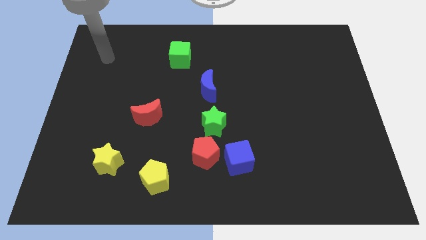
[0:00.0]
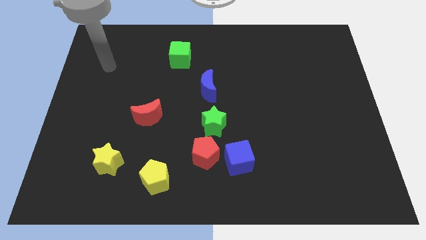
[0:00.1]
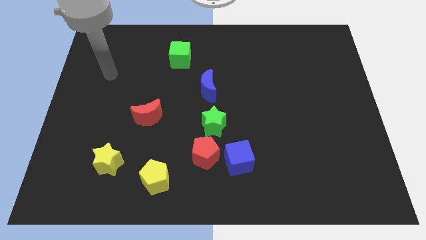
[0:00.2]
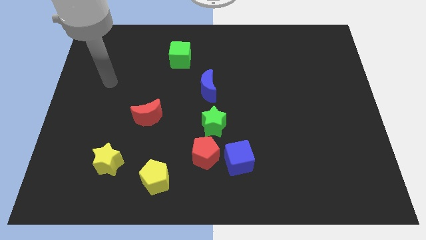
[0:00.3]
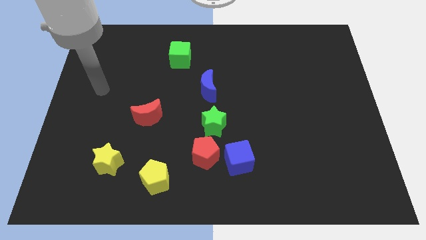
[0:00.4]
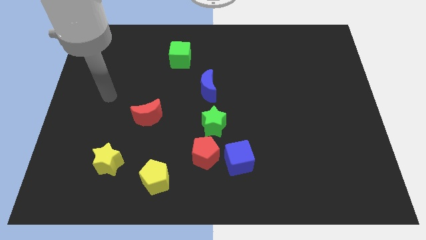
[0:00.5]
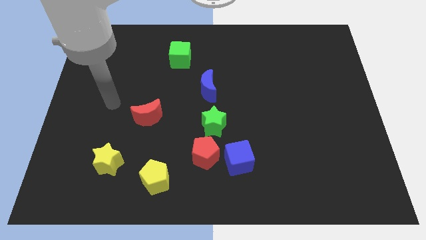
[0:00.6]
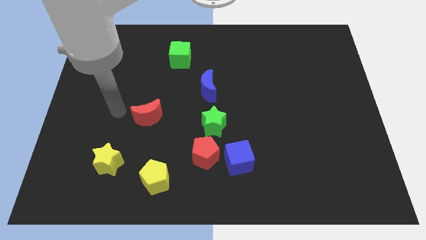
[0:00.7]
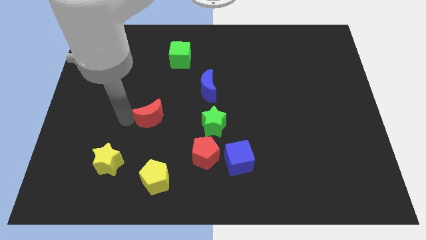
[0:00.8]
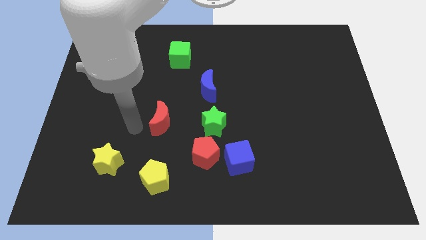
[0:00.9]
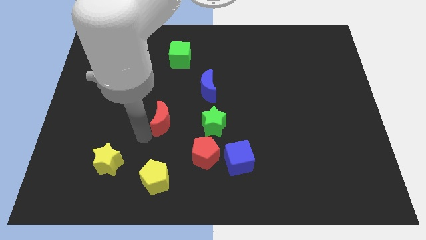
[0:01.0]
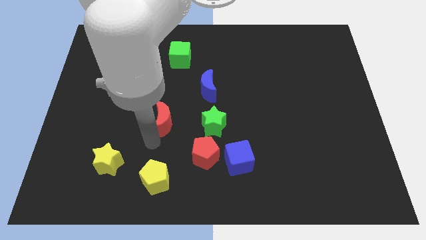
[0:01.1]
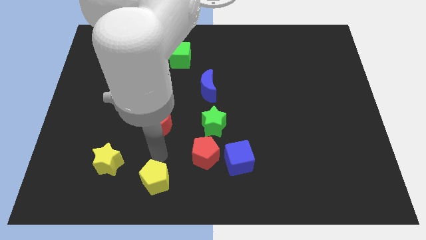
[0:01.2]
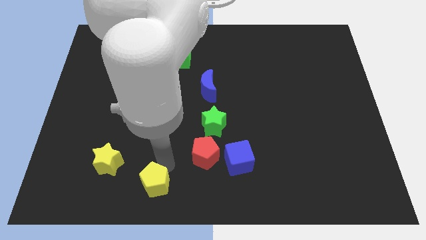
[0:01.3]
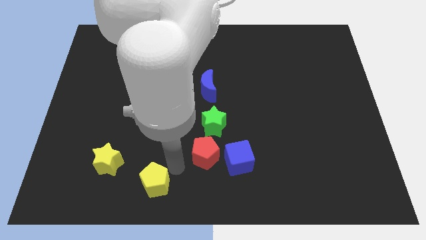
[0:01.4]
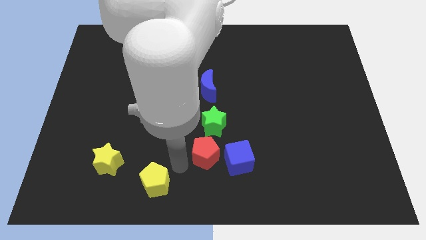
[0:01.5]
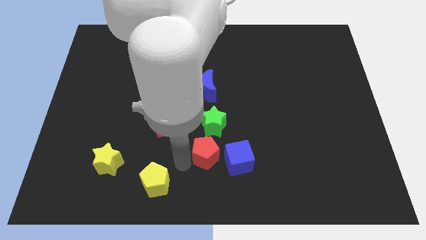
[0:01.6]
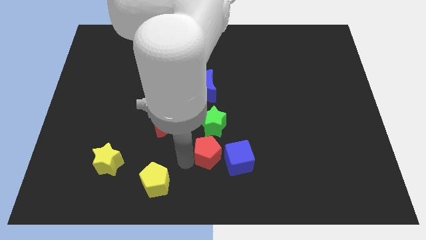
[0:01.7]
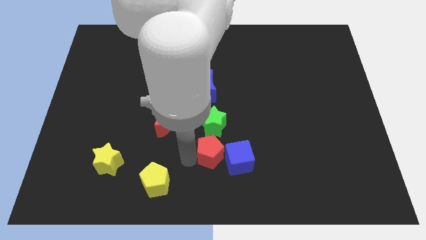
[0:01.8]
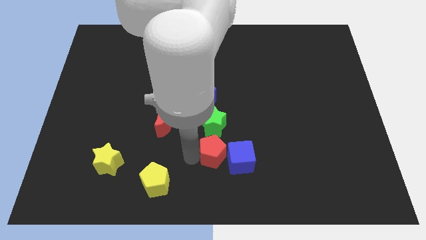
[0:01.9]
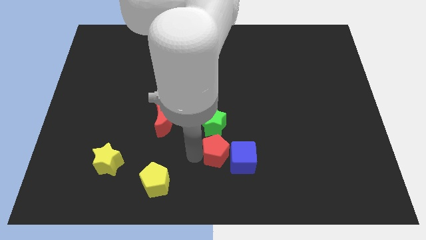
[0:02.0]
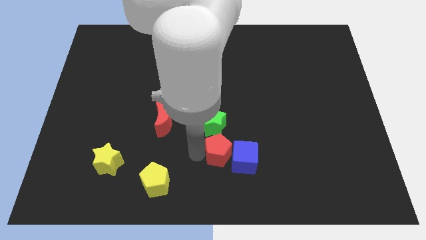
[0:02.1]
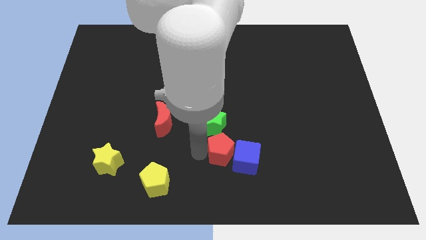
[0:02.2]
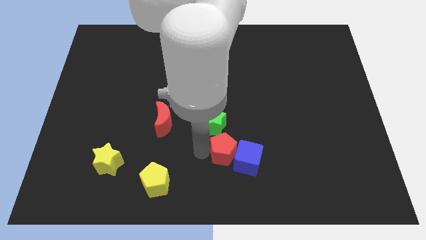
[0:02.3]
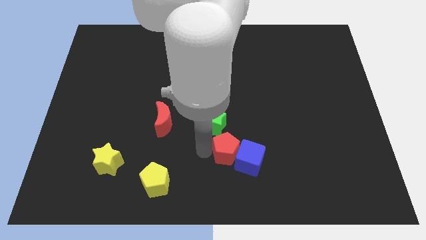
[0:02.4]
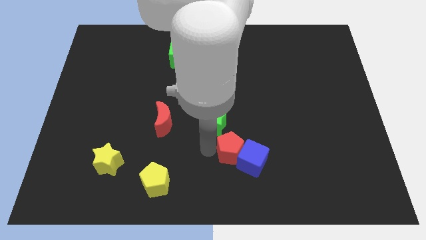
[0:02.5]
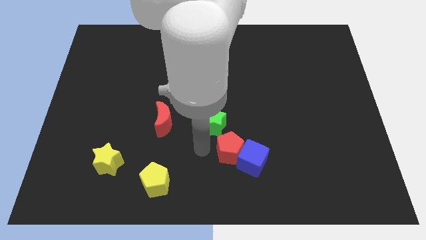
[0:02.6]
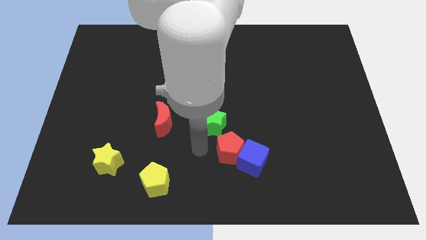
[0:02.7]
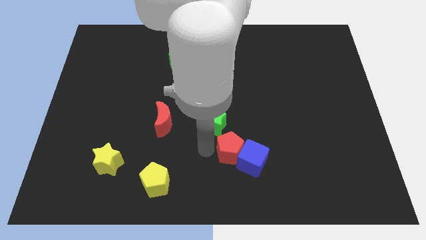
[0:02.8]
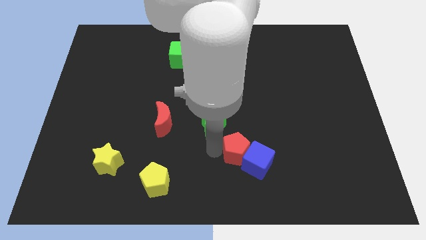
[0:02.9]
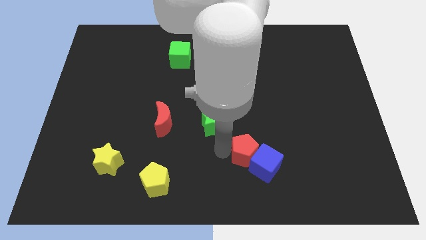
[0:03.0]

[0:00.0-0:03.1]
move the red pentagon to the right a little

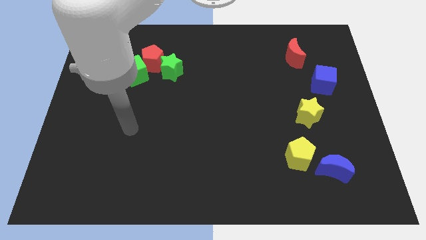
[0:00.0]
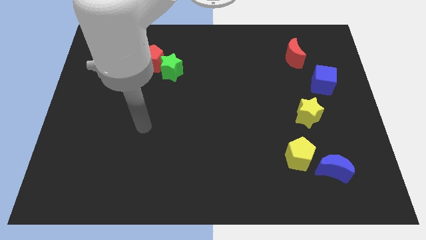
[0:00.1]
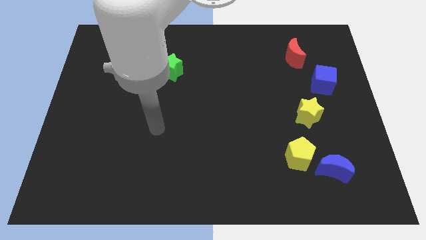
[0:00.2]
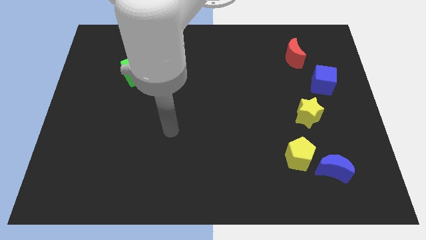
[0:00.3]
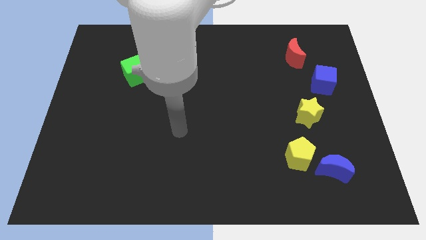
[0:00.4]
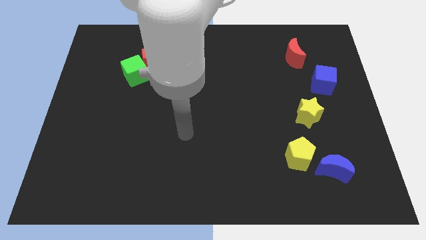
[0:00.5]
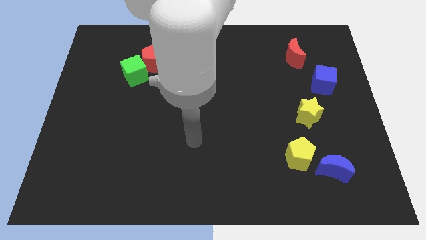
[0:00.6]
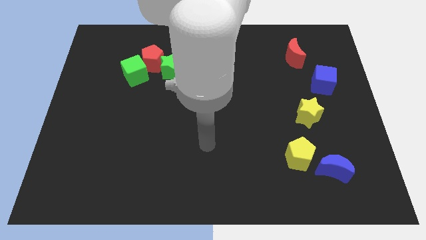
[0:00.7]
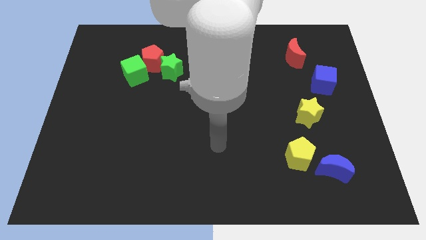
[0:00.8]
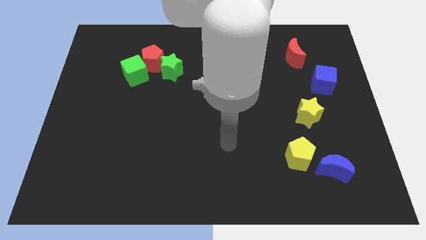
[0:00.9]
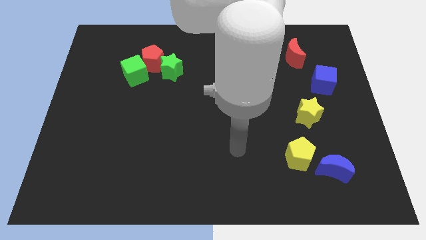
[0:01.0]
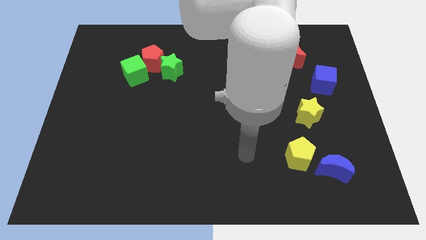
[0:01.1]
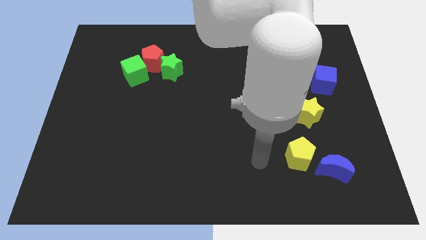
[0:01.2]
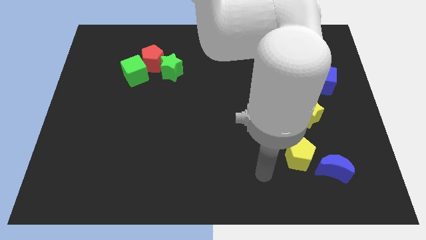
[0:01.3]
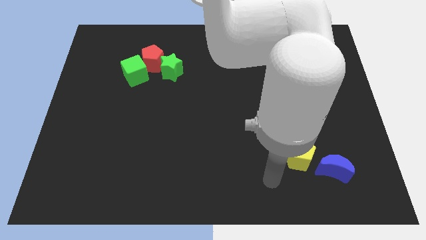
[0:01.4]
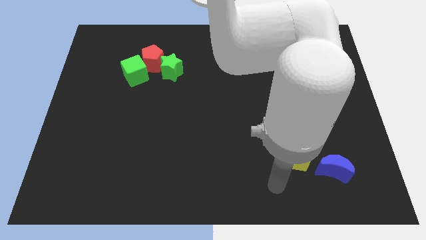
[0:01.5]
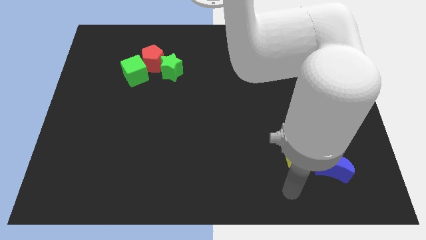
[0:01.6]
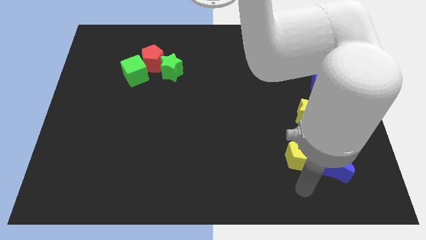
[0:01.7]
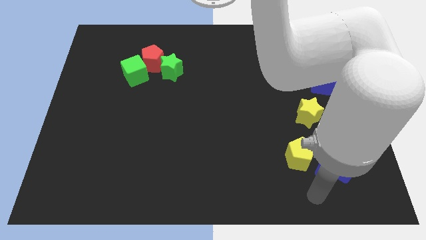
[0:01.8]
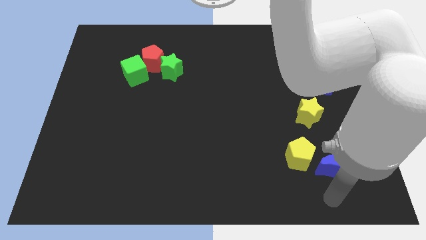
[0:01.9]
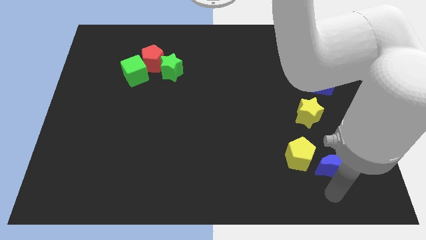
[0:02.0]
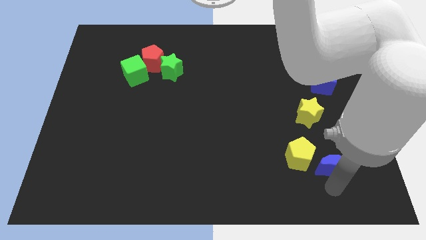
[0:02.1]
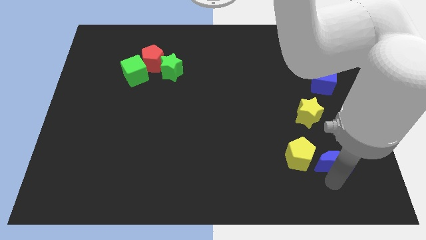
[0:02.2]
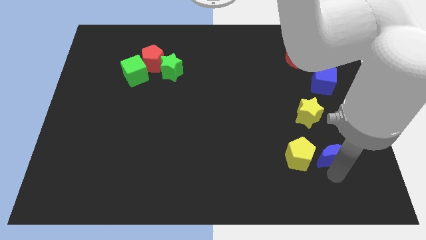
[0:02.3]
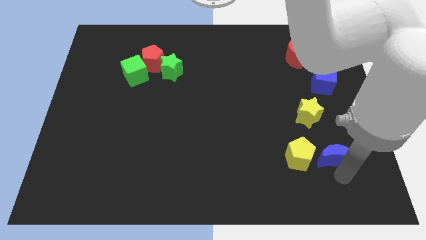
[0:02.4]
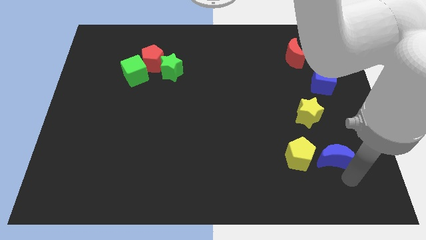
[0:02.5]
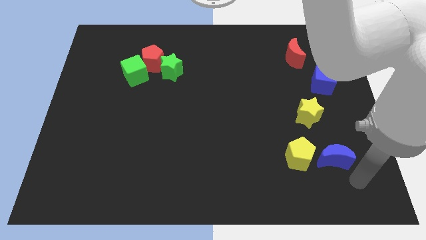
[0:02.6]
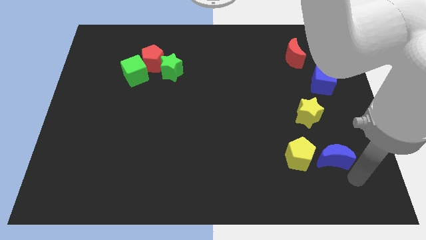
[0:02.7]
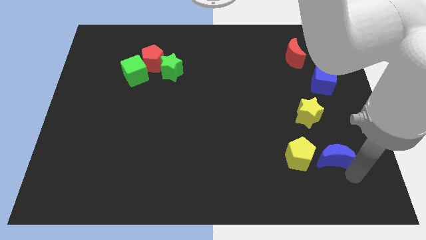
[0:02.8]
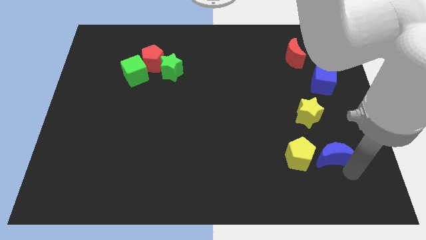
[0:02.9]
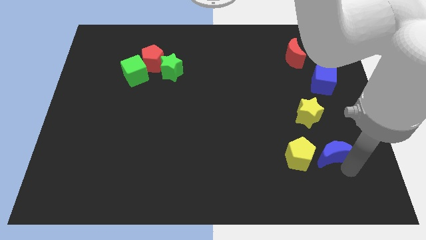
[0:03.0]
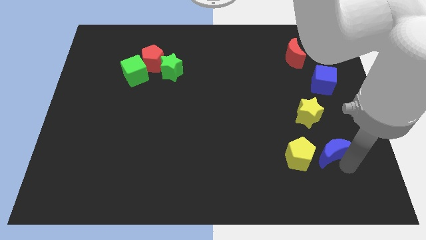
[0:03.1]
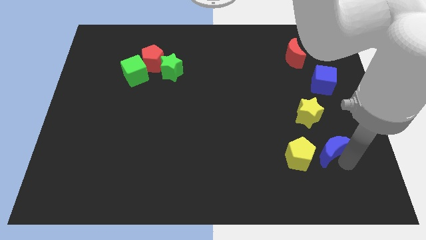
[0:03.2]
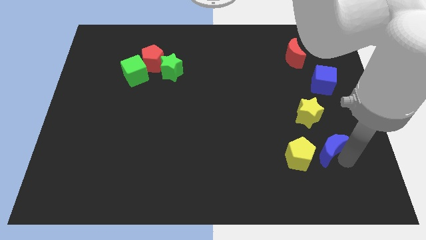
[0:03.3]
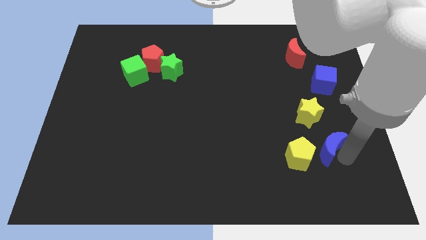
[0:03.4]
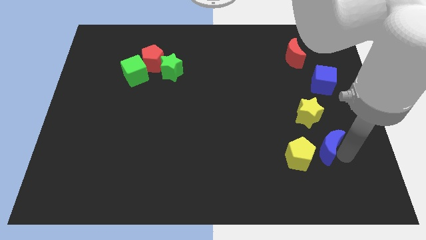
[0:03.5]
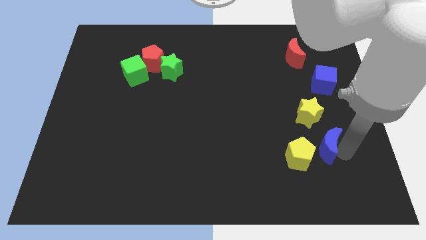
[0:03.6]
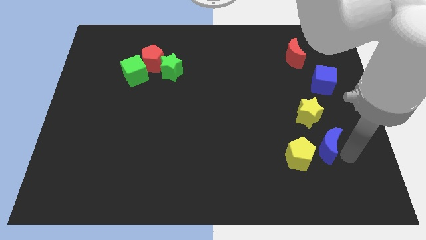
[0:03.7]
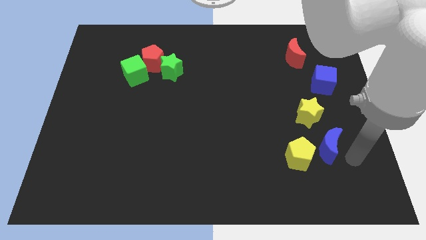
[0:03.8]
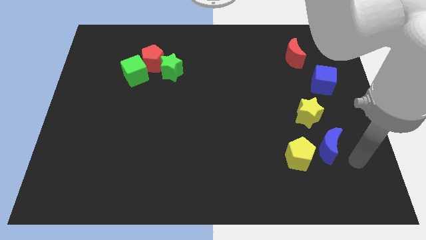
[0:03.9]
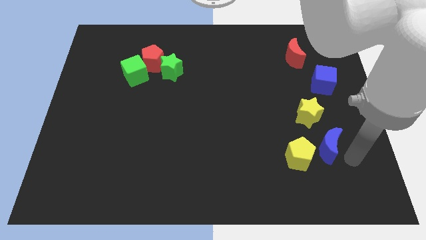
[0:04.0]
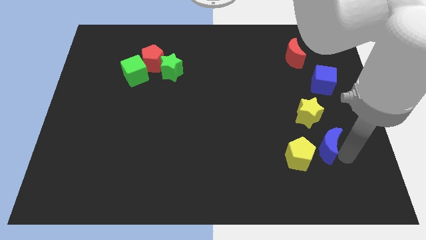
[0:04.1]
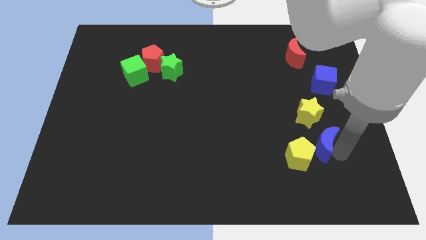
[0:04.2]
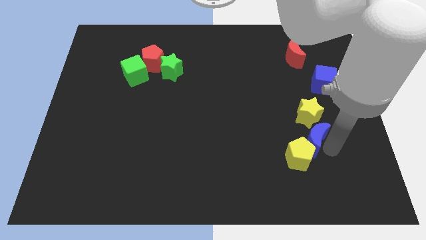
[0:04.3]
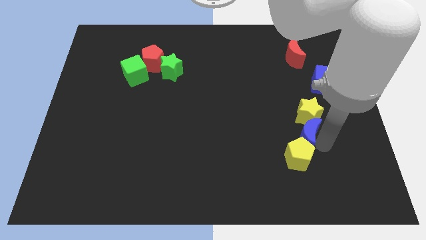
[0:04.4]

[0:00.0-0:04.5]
push the blue moon up and then to the left a little
